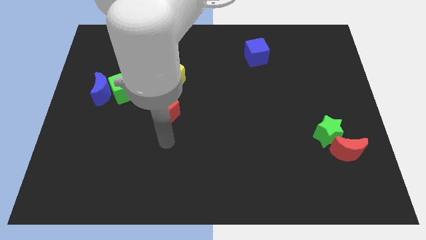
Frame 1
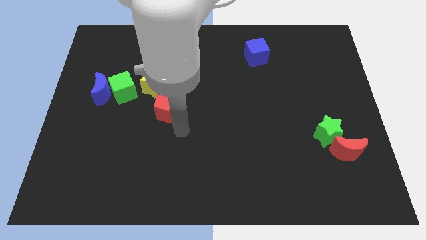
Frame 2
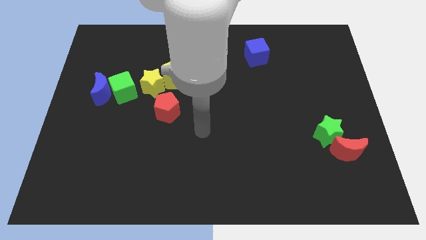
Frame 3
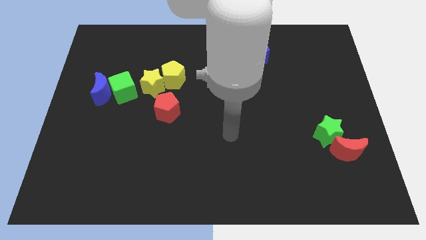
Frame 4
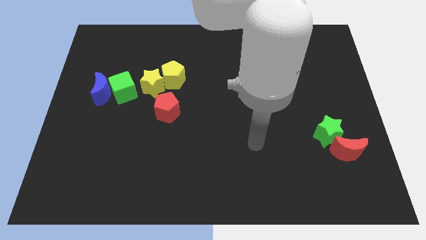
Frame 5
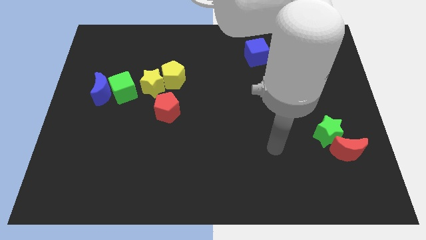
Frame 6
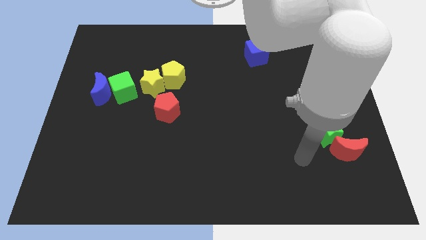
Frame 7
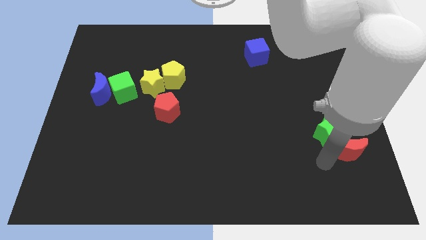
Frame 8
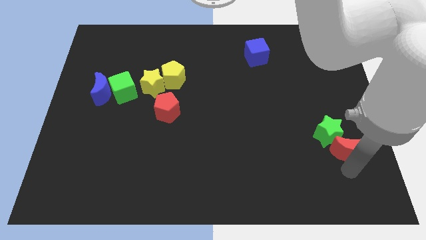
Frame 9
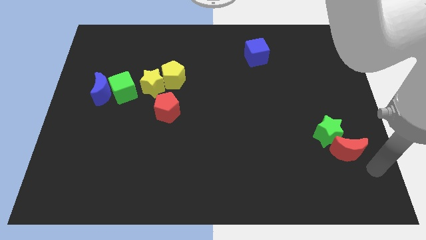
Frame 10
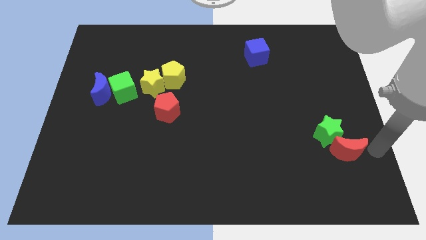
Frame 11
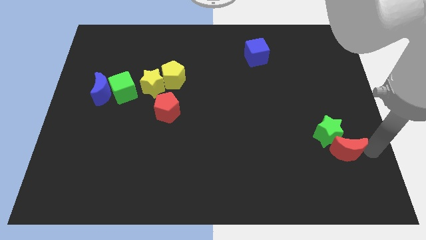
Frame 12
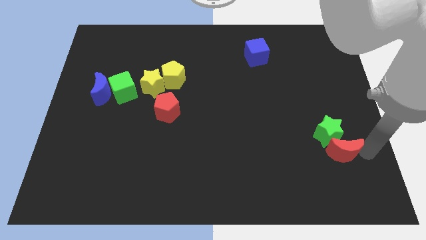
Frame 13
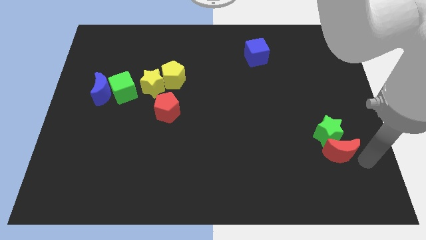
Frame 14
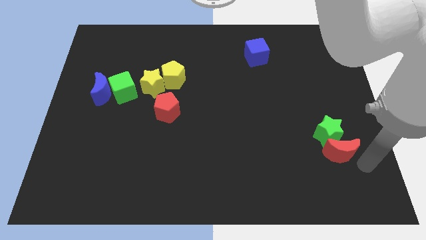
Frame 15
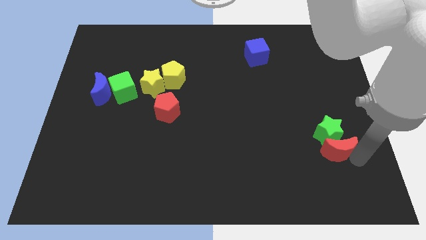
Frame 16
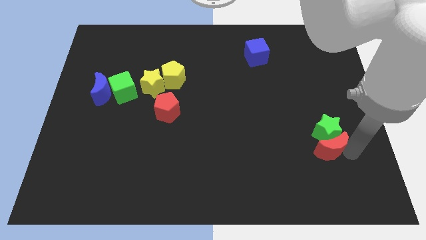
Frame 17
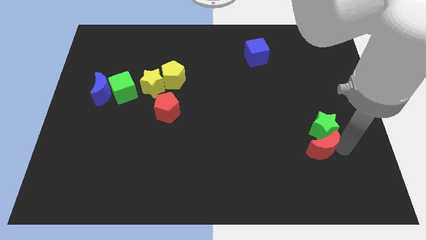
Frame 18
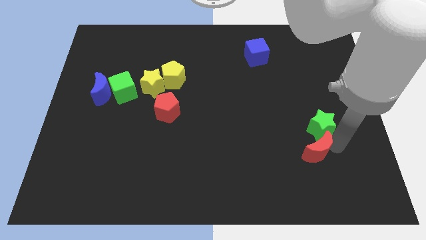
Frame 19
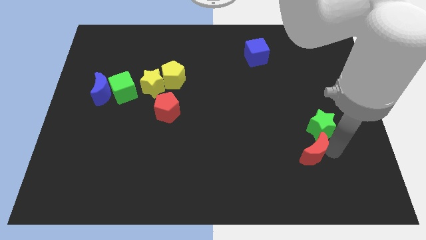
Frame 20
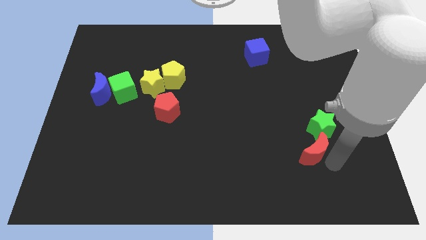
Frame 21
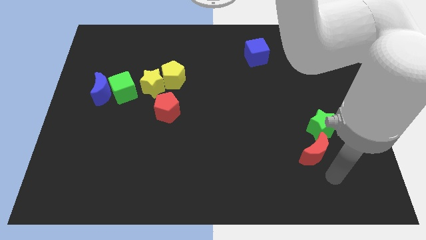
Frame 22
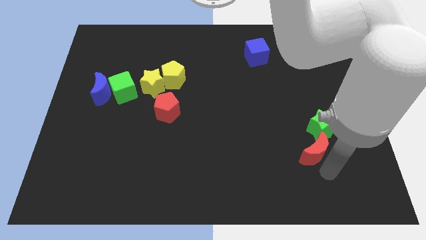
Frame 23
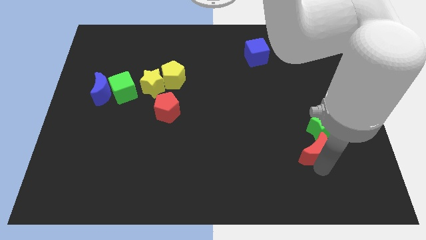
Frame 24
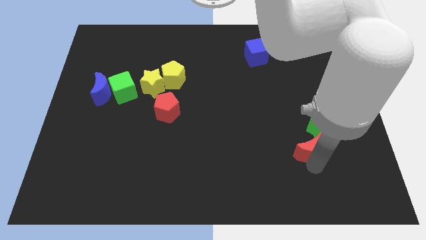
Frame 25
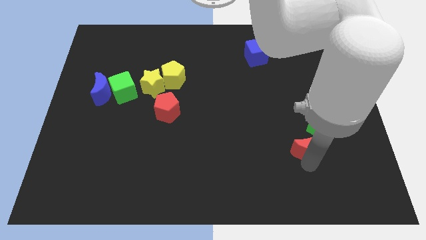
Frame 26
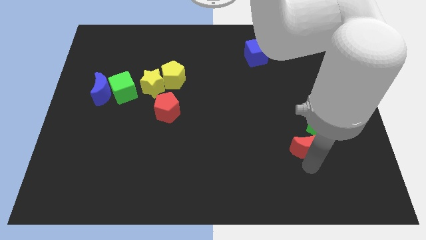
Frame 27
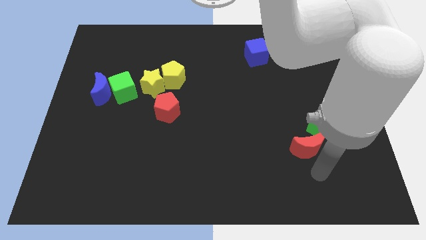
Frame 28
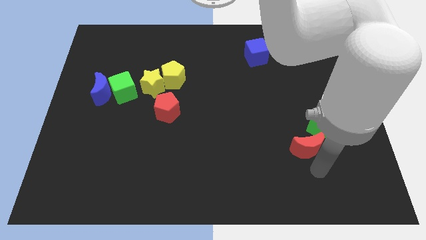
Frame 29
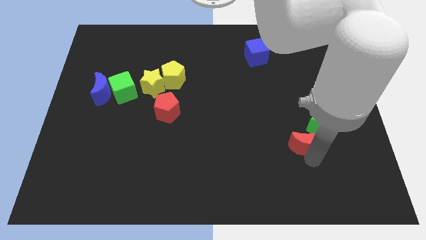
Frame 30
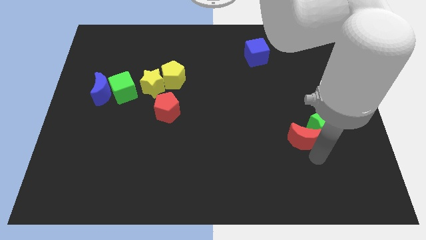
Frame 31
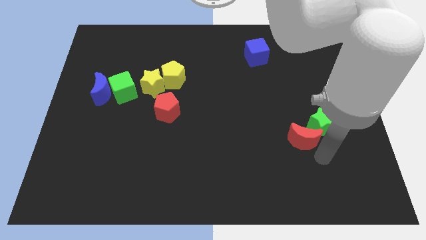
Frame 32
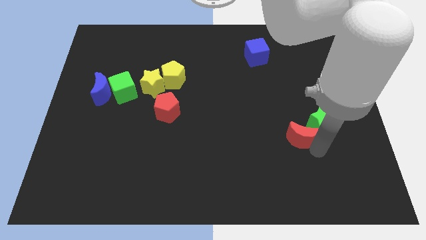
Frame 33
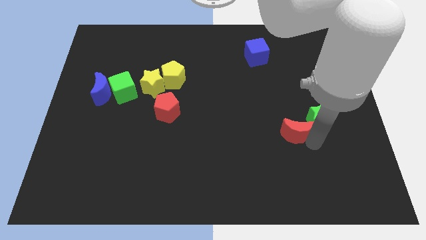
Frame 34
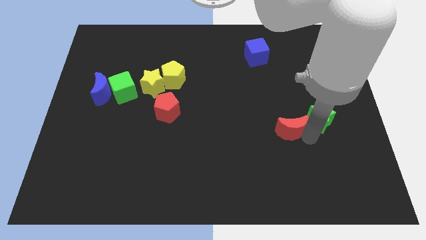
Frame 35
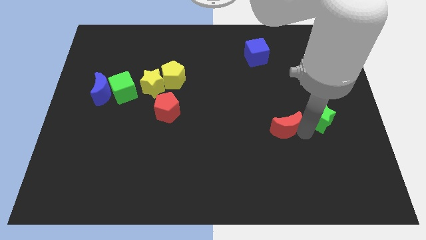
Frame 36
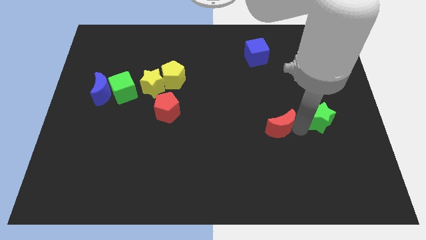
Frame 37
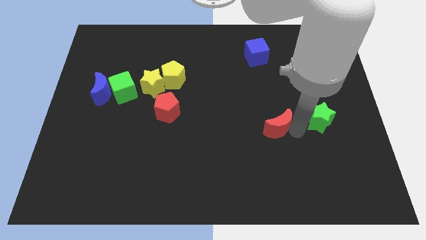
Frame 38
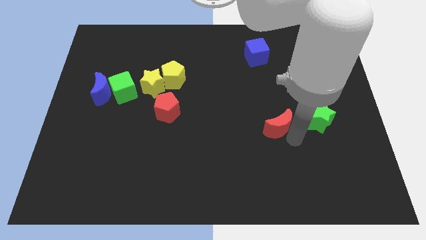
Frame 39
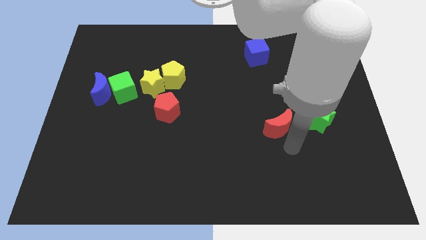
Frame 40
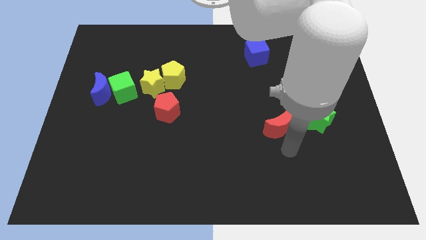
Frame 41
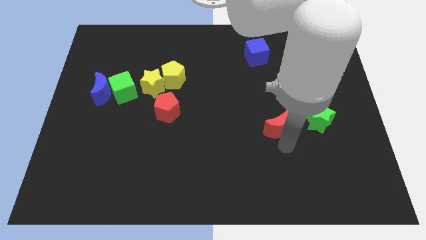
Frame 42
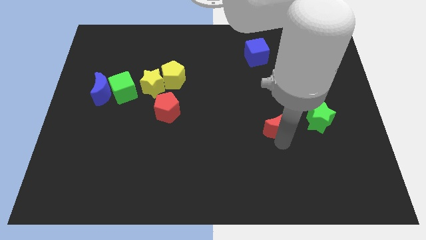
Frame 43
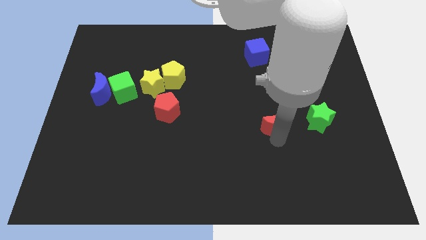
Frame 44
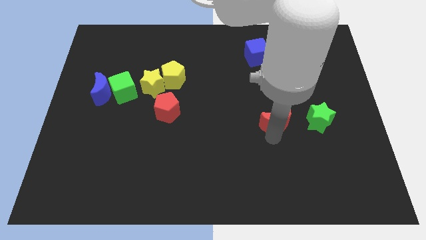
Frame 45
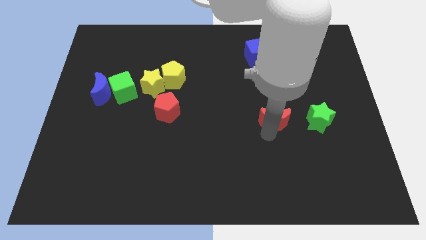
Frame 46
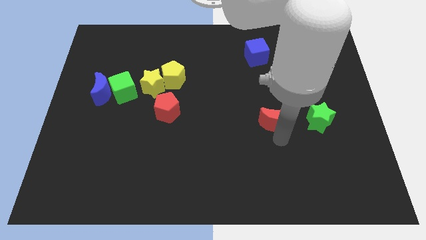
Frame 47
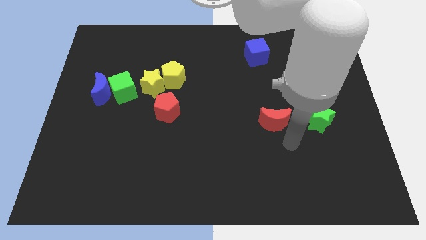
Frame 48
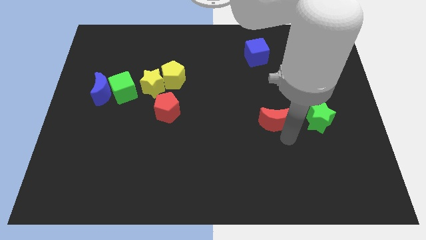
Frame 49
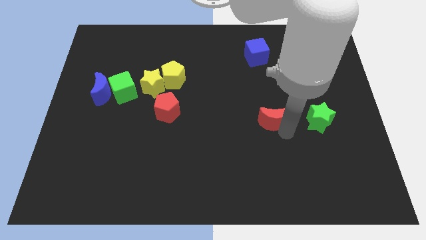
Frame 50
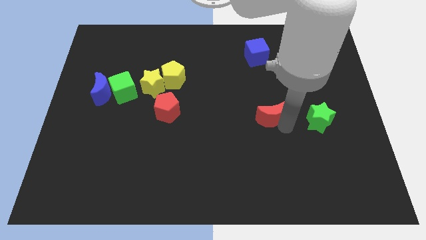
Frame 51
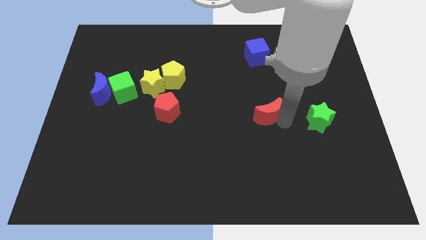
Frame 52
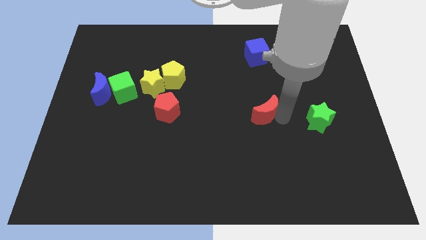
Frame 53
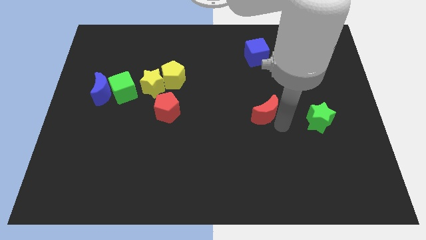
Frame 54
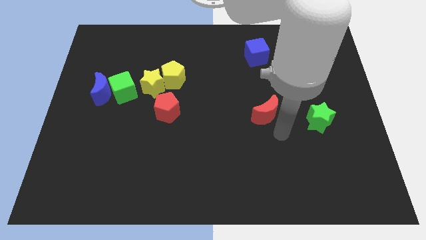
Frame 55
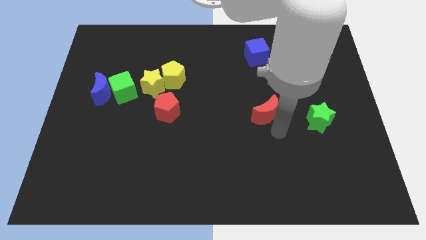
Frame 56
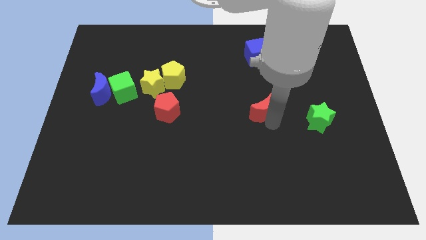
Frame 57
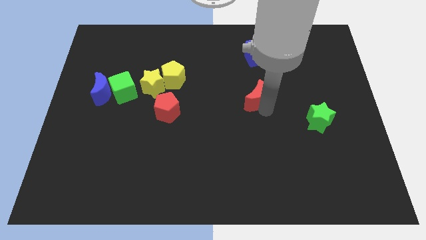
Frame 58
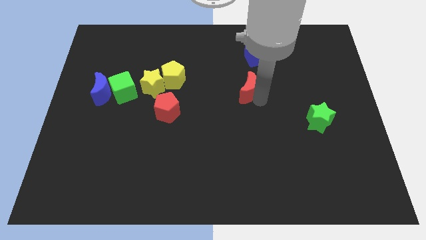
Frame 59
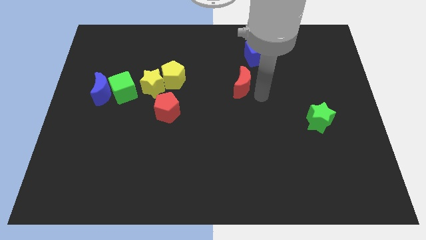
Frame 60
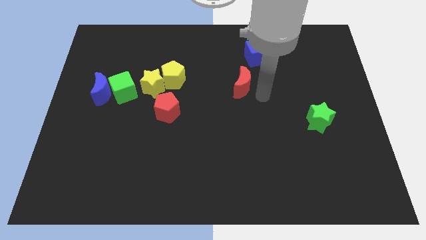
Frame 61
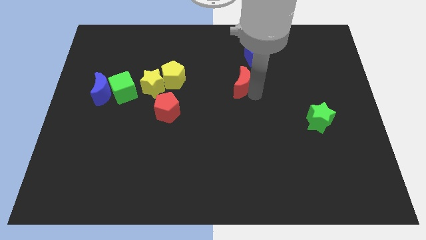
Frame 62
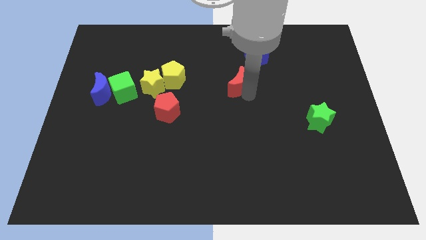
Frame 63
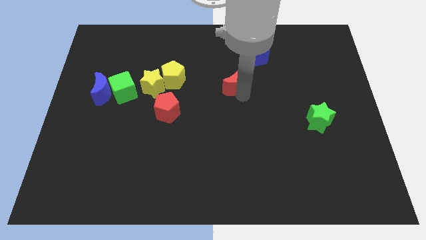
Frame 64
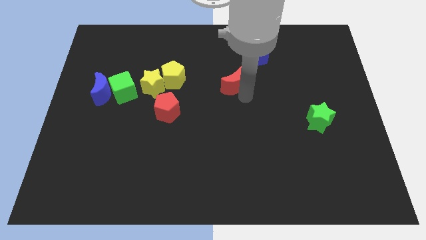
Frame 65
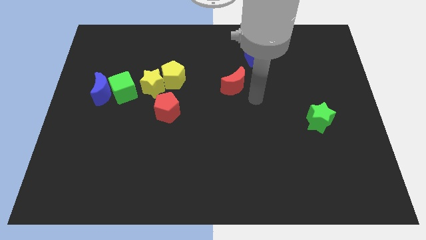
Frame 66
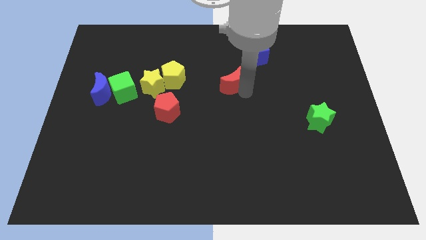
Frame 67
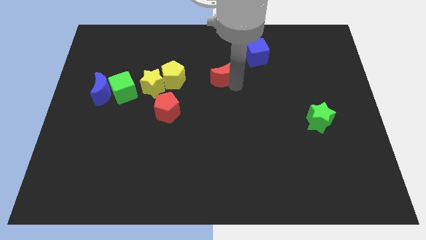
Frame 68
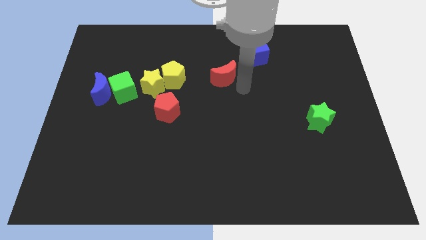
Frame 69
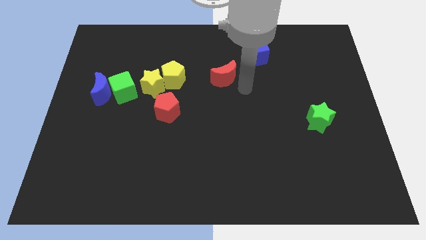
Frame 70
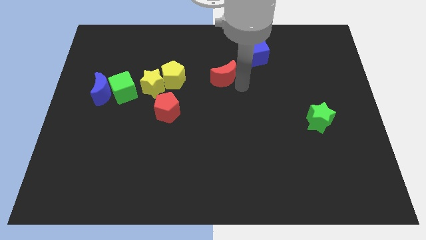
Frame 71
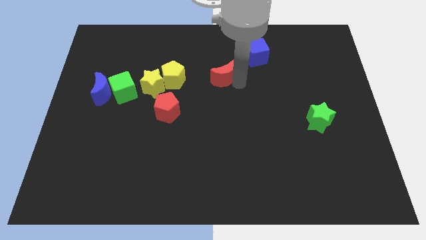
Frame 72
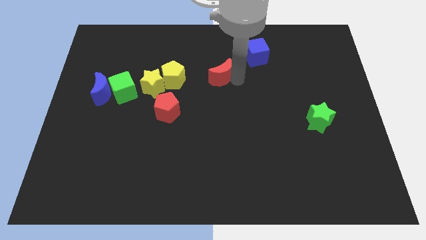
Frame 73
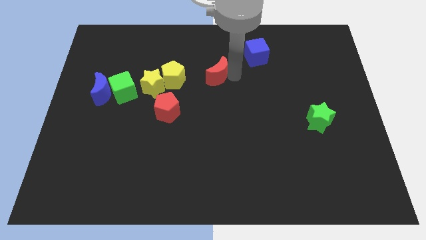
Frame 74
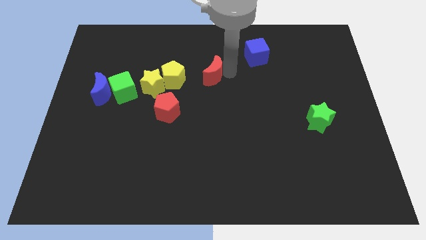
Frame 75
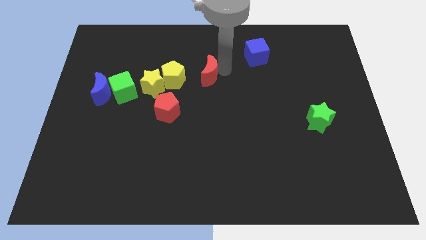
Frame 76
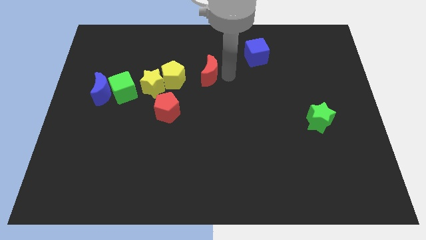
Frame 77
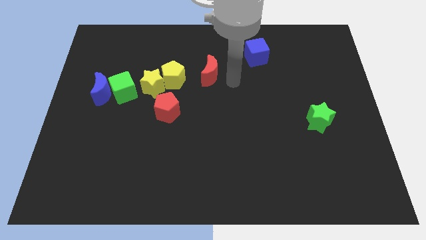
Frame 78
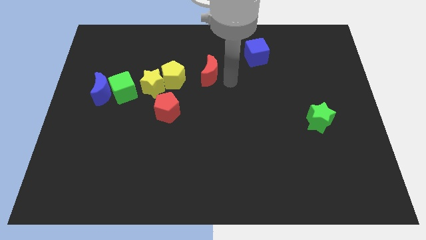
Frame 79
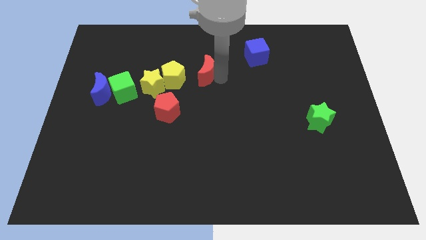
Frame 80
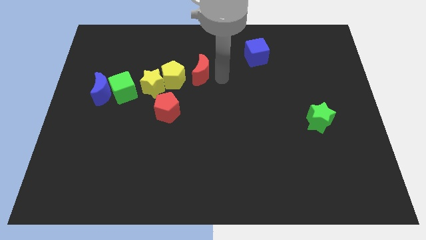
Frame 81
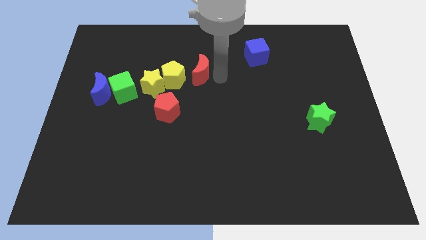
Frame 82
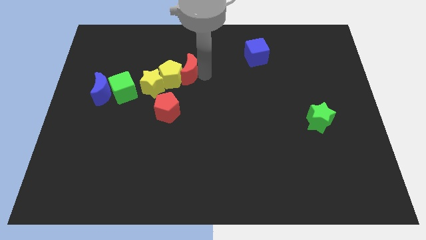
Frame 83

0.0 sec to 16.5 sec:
put the red moon to the top of the red pentagon
